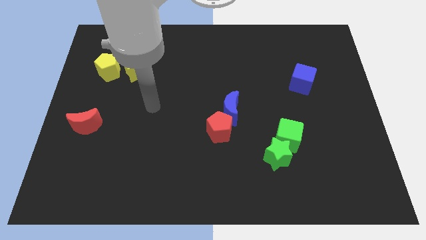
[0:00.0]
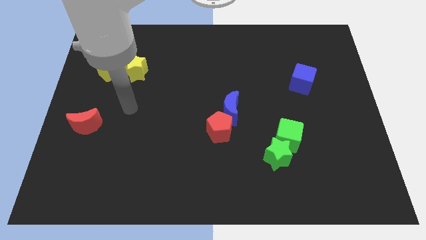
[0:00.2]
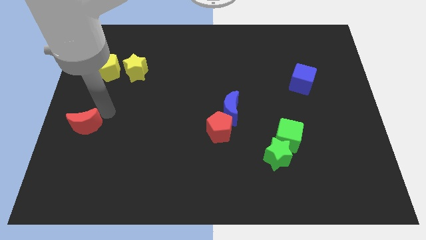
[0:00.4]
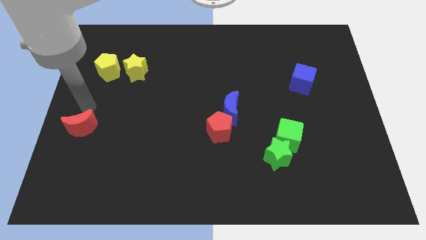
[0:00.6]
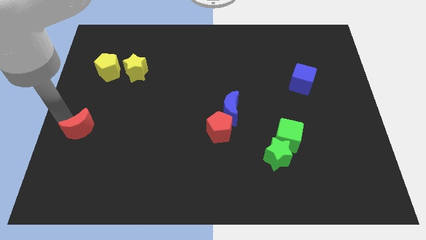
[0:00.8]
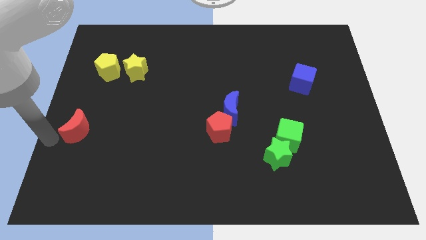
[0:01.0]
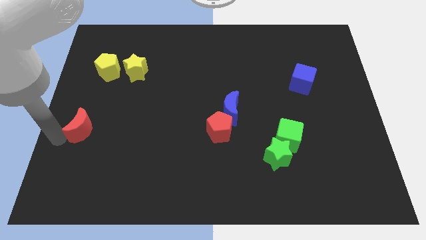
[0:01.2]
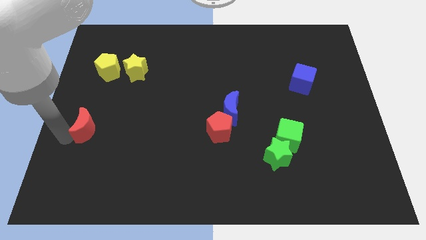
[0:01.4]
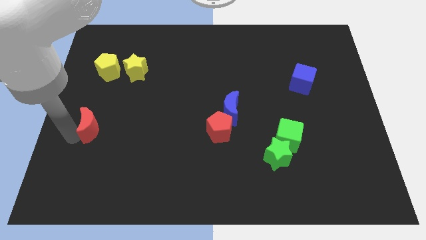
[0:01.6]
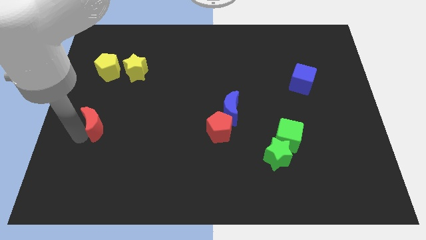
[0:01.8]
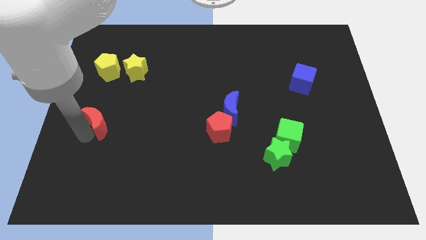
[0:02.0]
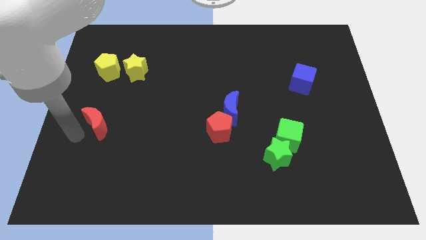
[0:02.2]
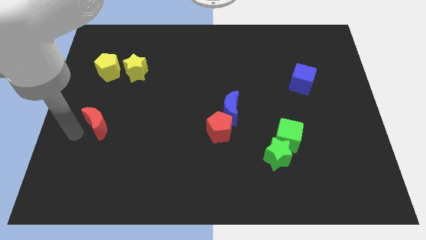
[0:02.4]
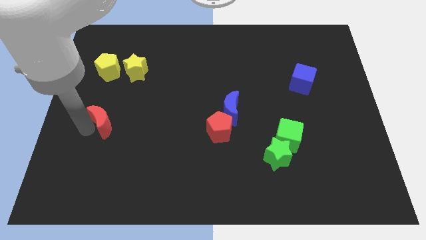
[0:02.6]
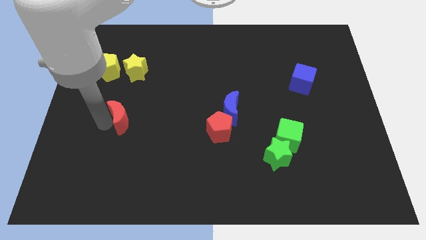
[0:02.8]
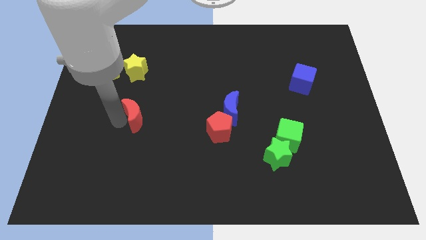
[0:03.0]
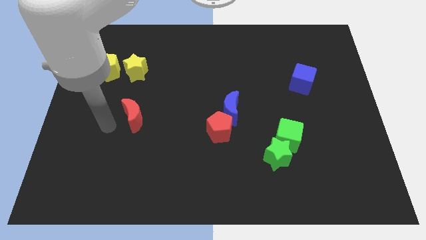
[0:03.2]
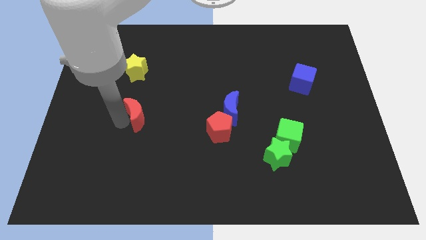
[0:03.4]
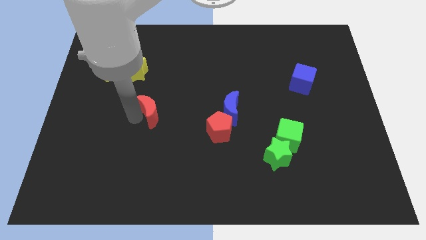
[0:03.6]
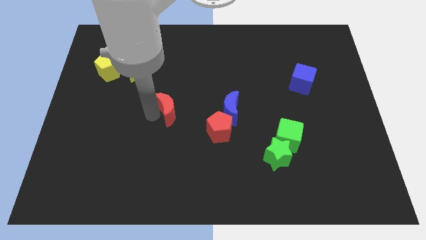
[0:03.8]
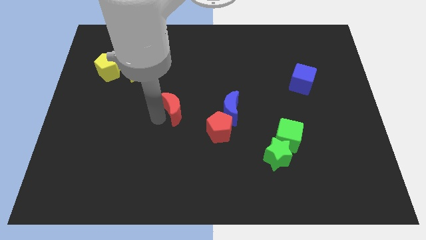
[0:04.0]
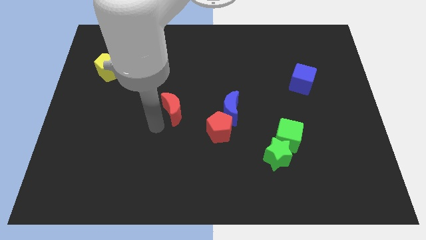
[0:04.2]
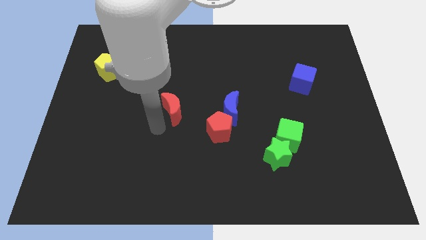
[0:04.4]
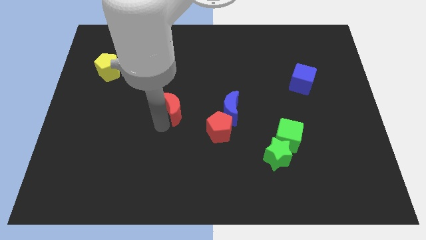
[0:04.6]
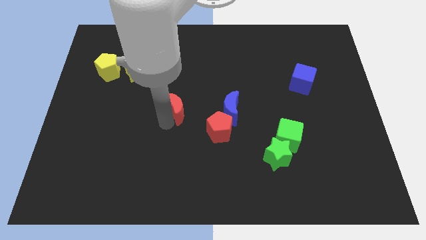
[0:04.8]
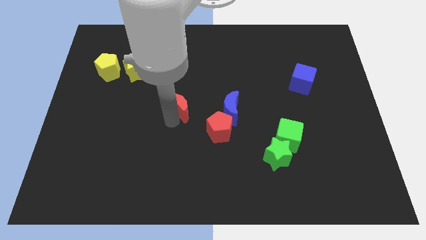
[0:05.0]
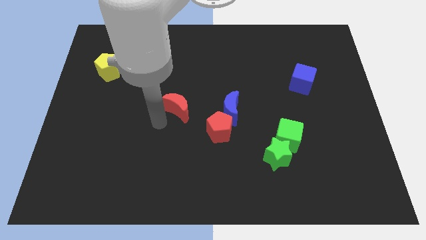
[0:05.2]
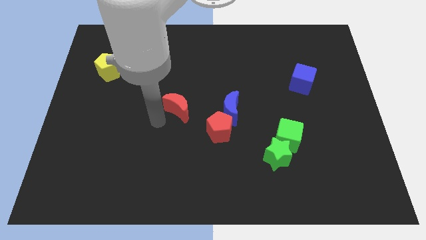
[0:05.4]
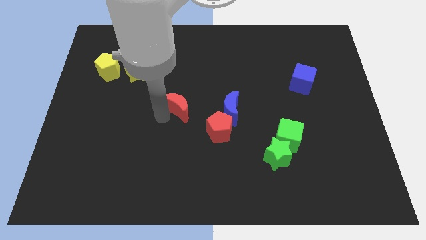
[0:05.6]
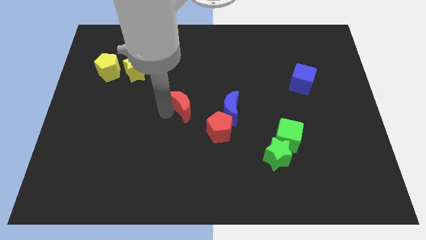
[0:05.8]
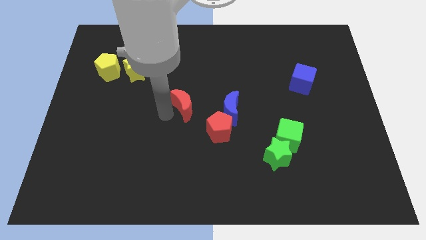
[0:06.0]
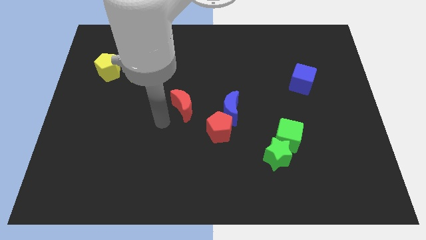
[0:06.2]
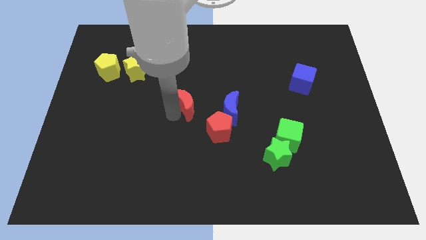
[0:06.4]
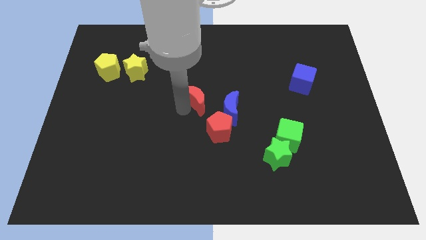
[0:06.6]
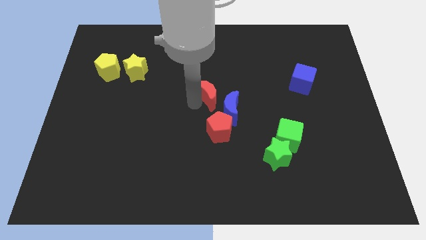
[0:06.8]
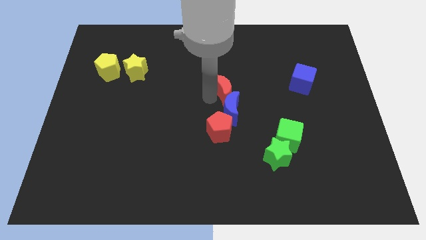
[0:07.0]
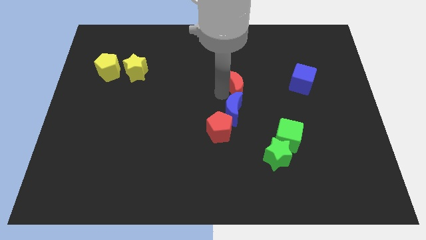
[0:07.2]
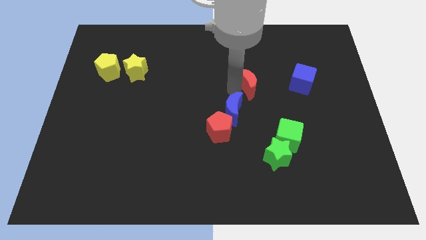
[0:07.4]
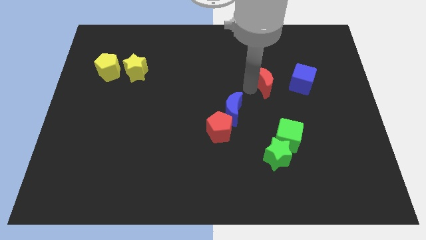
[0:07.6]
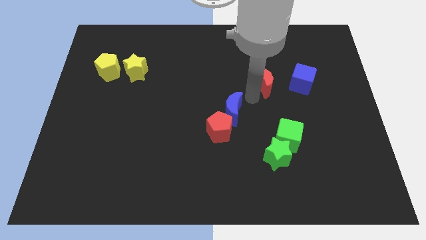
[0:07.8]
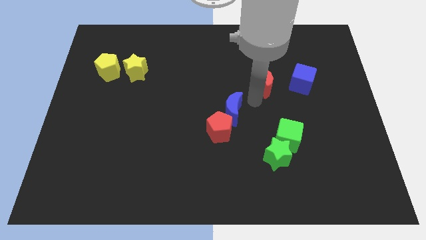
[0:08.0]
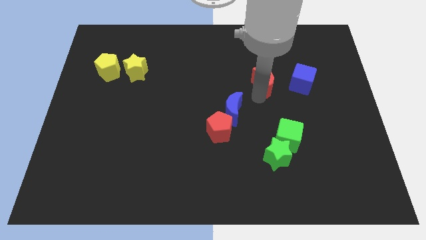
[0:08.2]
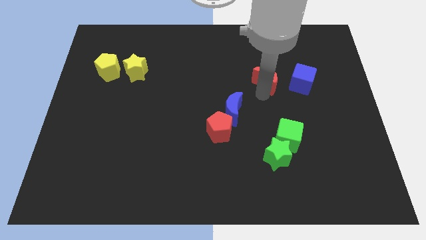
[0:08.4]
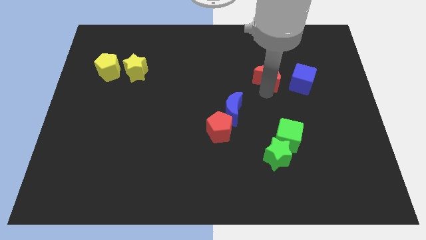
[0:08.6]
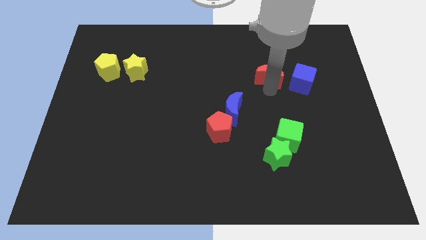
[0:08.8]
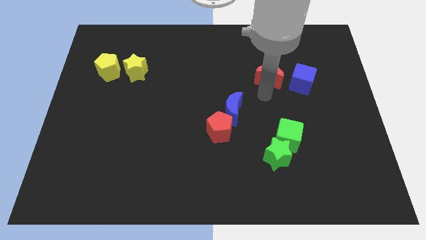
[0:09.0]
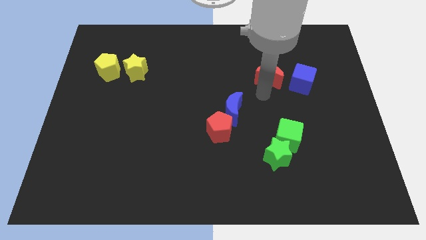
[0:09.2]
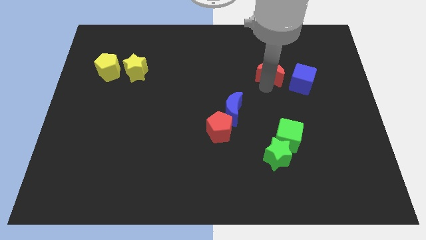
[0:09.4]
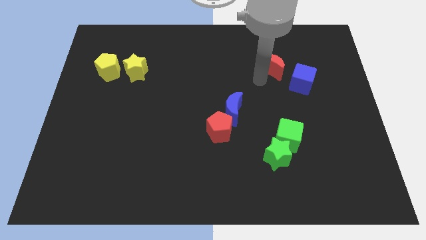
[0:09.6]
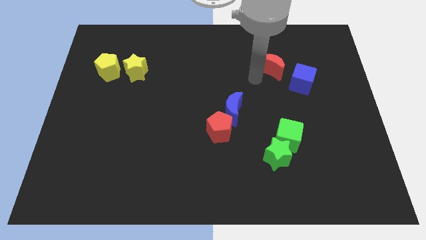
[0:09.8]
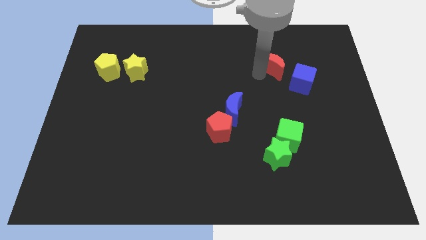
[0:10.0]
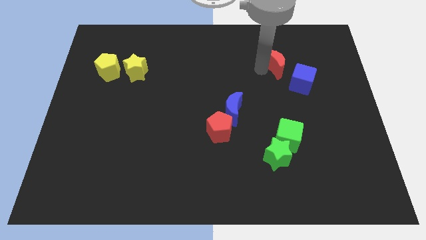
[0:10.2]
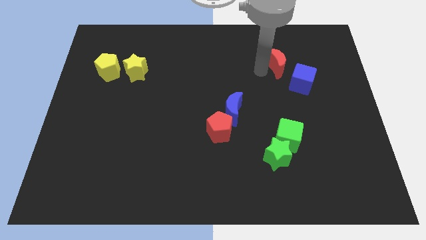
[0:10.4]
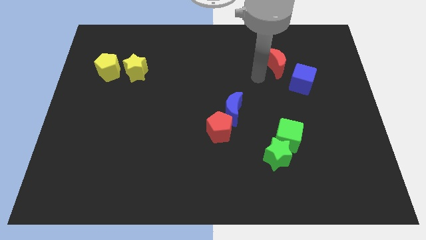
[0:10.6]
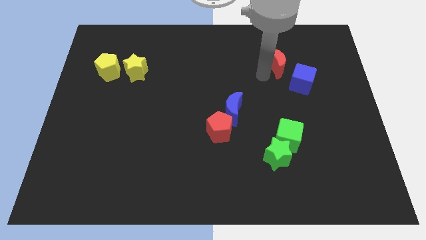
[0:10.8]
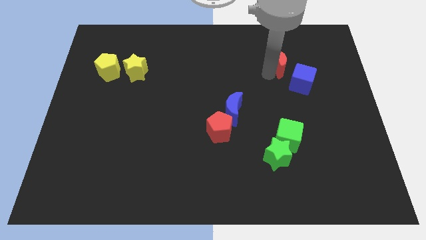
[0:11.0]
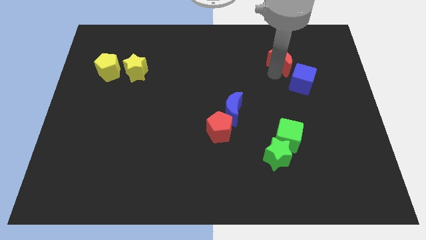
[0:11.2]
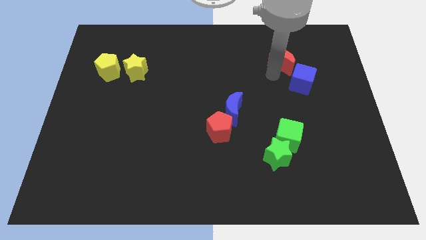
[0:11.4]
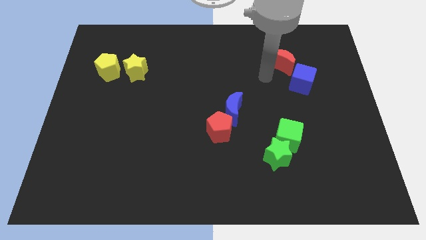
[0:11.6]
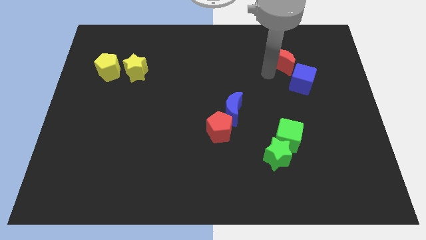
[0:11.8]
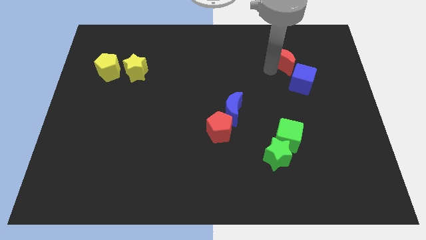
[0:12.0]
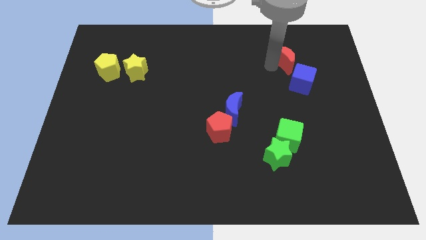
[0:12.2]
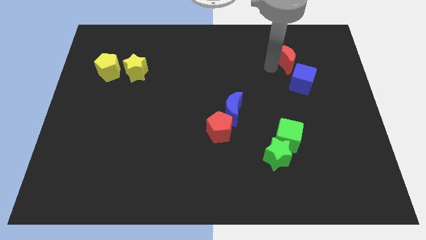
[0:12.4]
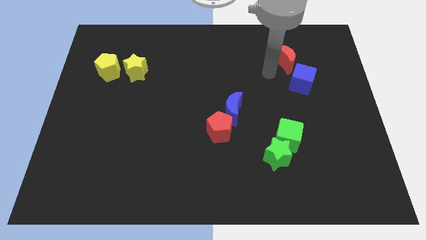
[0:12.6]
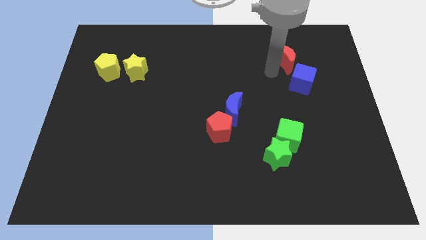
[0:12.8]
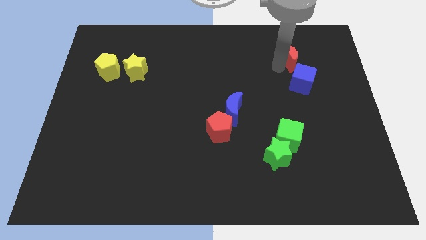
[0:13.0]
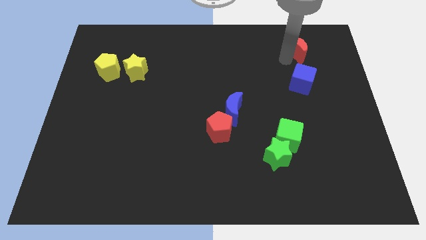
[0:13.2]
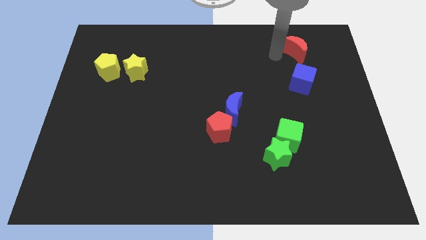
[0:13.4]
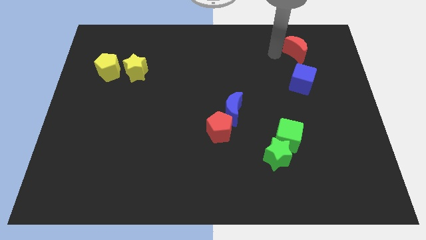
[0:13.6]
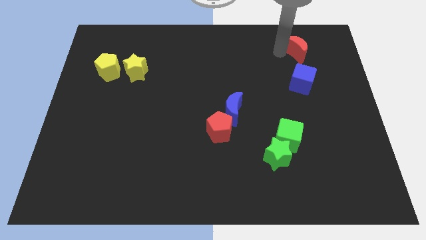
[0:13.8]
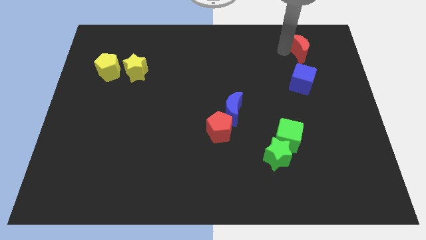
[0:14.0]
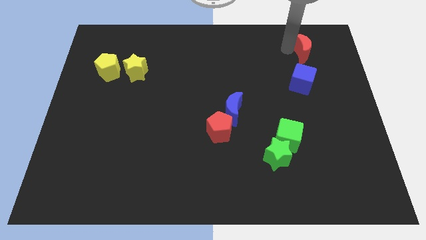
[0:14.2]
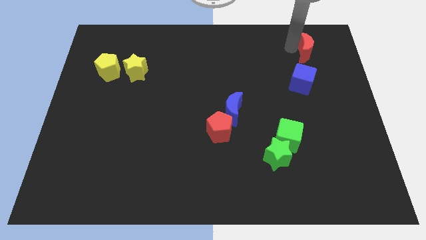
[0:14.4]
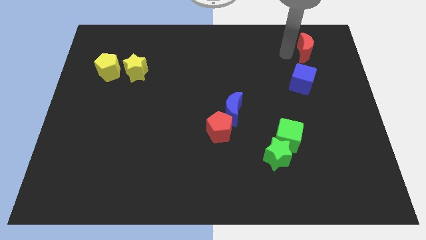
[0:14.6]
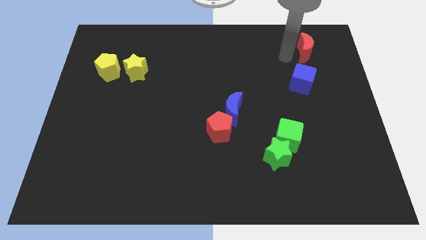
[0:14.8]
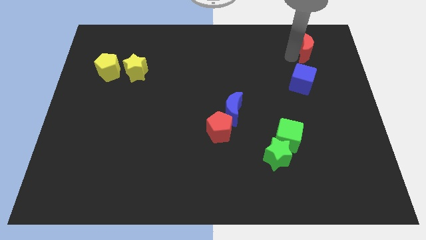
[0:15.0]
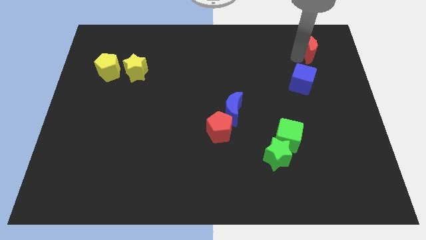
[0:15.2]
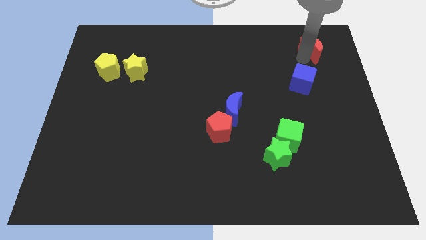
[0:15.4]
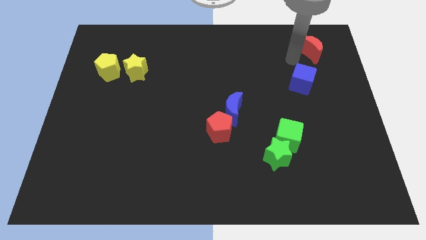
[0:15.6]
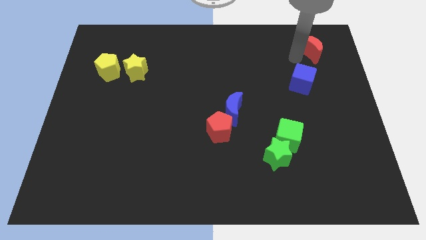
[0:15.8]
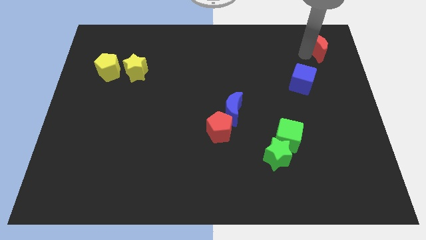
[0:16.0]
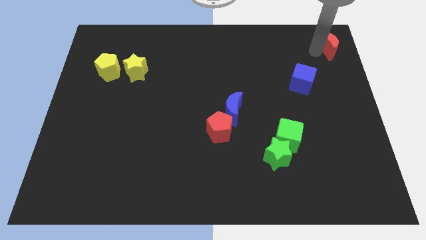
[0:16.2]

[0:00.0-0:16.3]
put the red moon to the upper right corner
